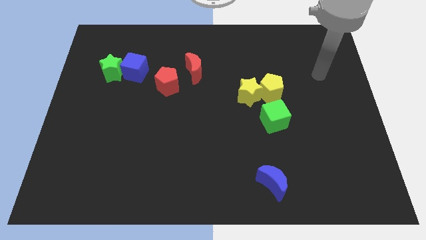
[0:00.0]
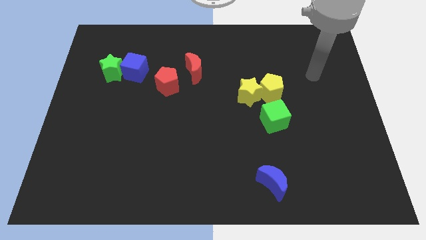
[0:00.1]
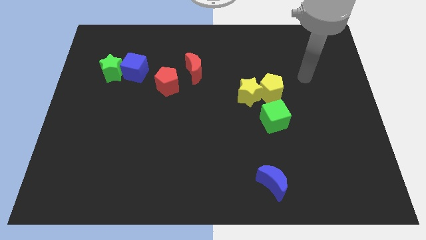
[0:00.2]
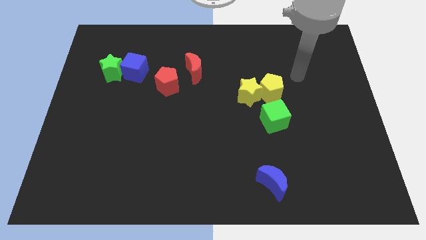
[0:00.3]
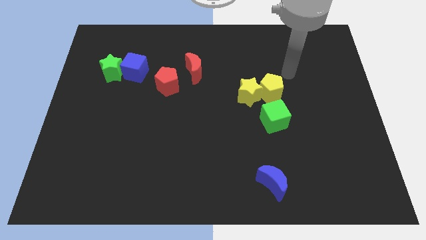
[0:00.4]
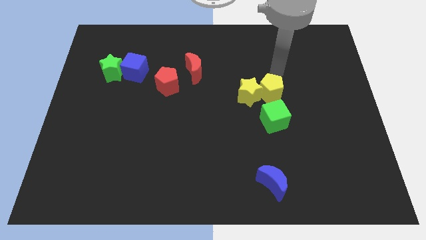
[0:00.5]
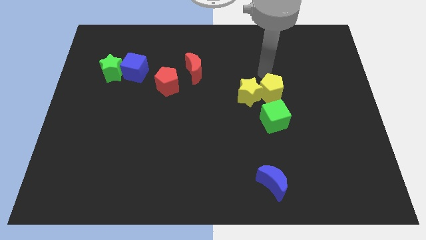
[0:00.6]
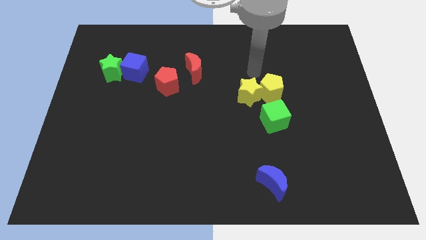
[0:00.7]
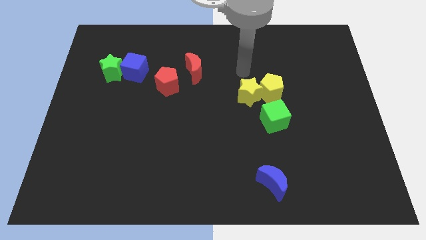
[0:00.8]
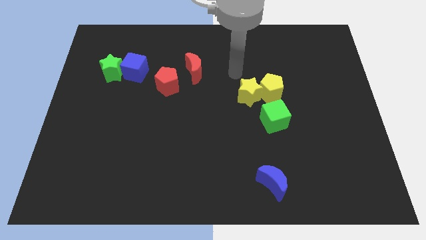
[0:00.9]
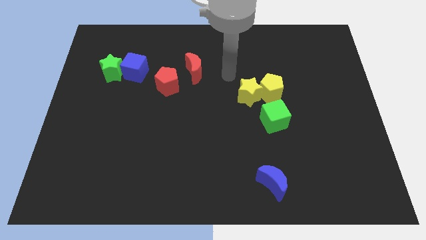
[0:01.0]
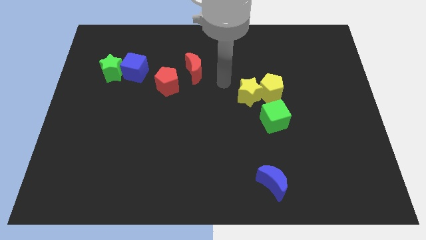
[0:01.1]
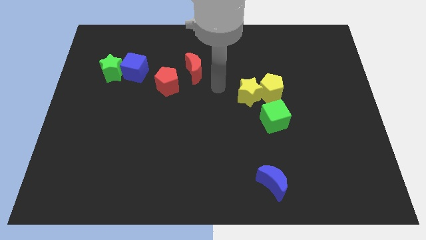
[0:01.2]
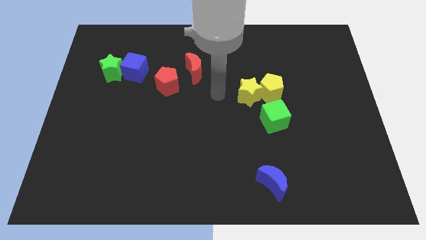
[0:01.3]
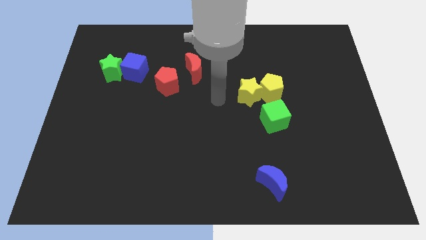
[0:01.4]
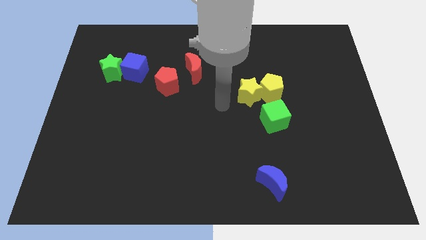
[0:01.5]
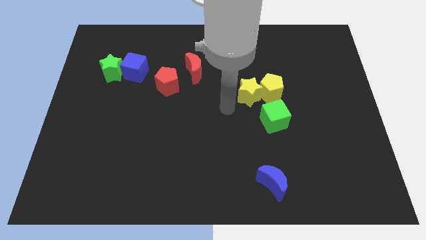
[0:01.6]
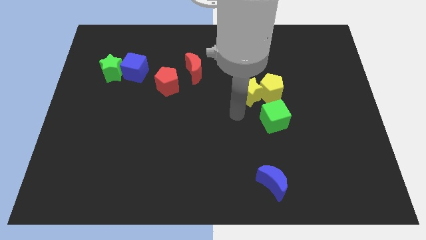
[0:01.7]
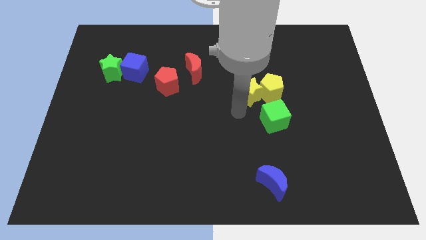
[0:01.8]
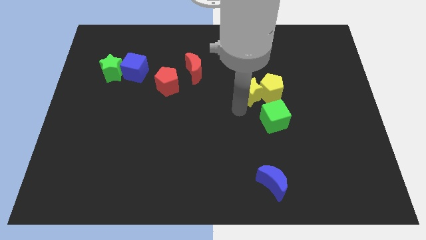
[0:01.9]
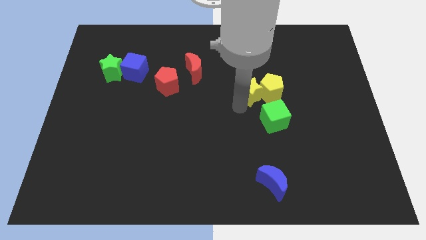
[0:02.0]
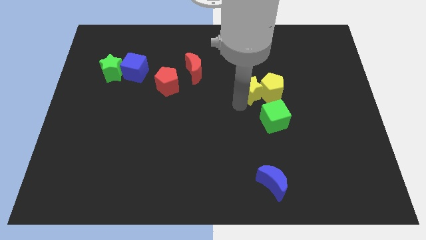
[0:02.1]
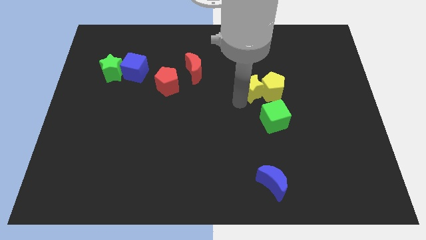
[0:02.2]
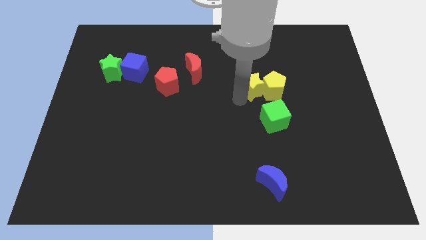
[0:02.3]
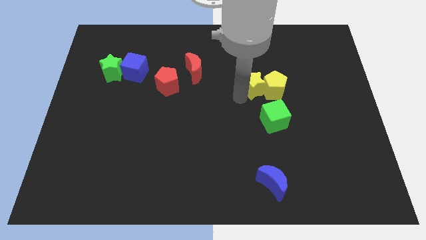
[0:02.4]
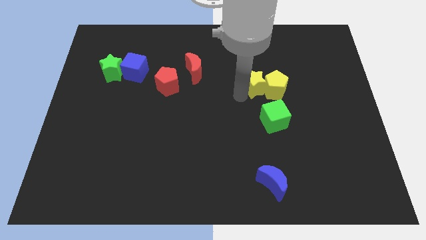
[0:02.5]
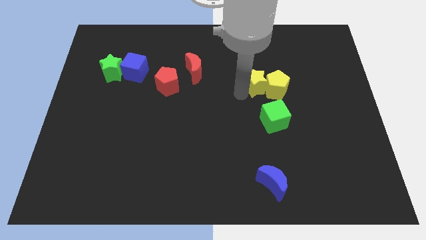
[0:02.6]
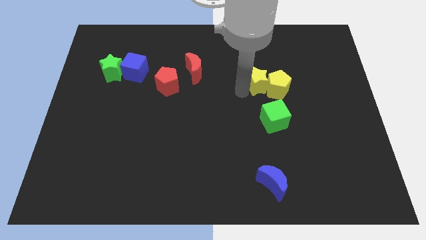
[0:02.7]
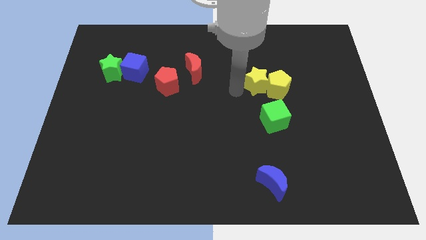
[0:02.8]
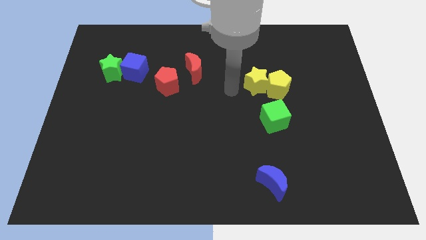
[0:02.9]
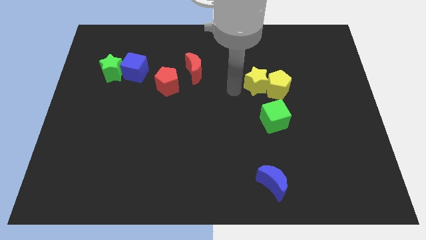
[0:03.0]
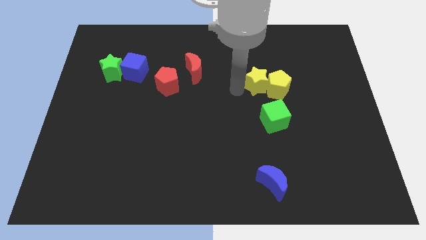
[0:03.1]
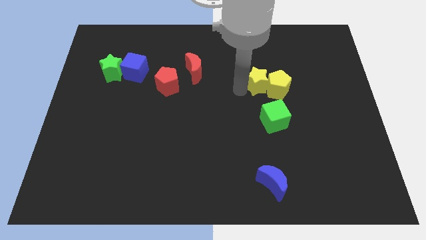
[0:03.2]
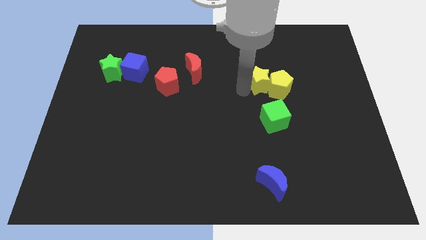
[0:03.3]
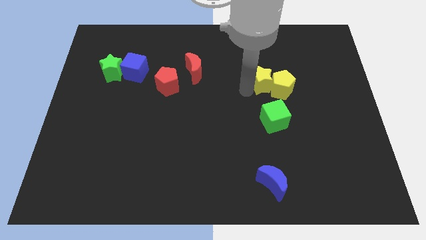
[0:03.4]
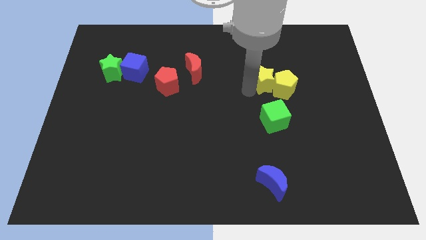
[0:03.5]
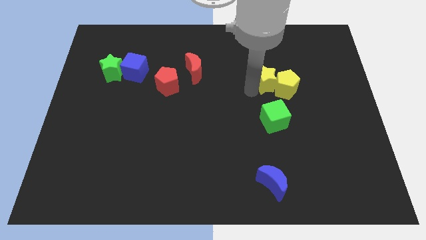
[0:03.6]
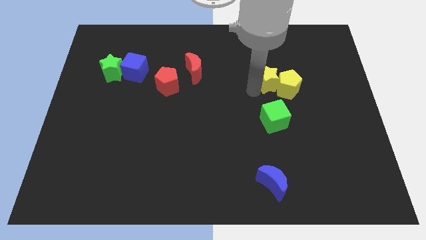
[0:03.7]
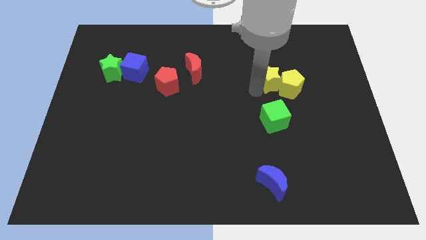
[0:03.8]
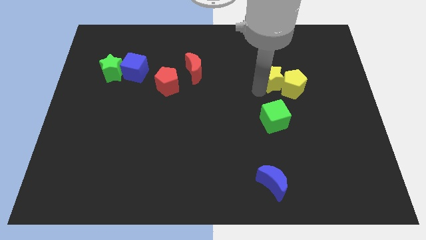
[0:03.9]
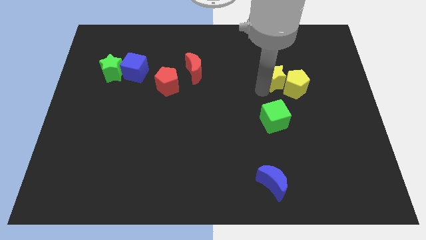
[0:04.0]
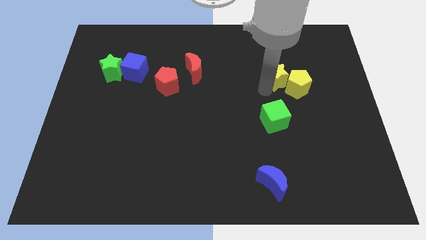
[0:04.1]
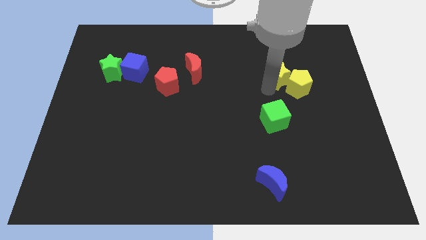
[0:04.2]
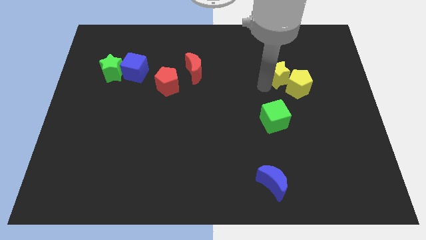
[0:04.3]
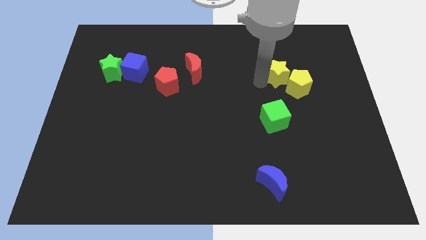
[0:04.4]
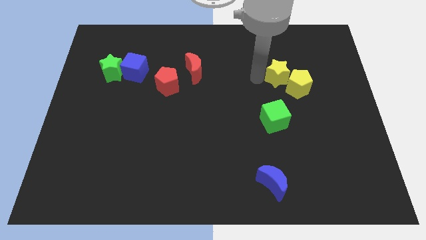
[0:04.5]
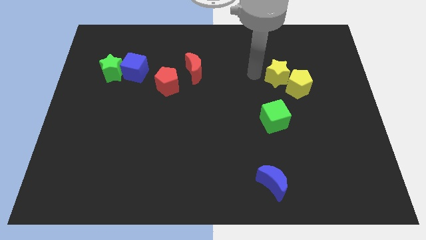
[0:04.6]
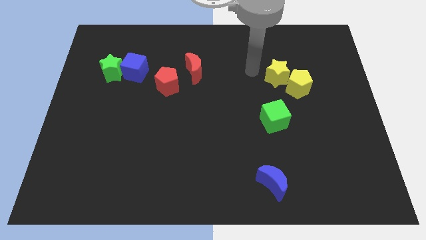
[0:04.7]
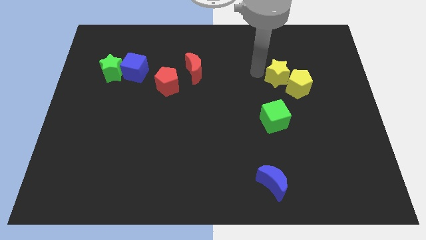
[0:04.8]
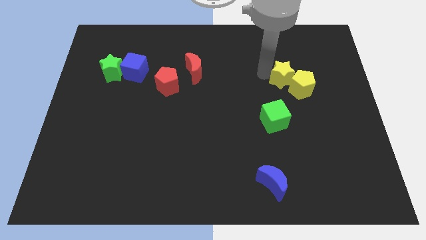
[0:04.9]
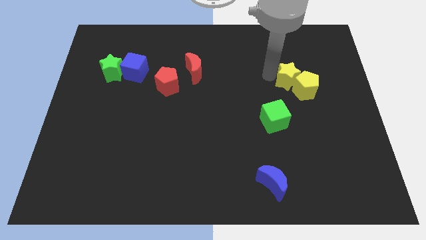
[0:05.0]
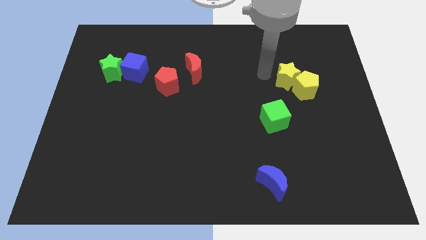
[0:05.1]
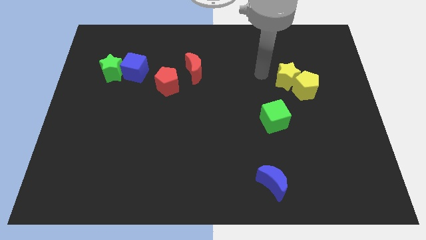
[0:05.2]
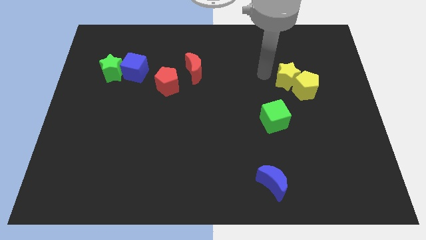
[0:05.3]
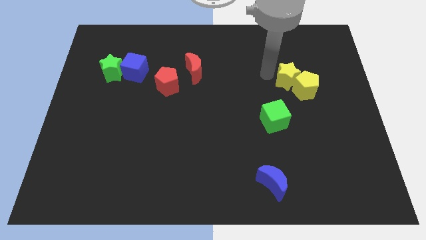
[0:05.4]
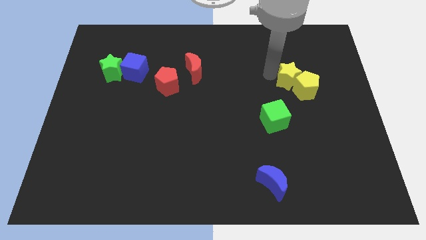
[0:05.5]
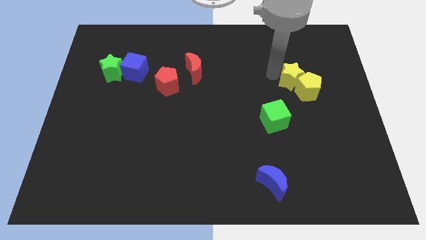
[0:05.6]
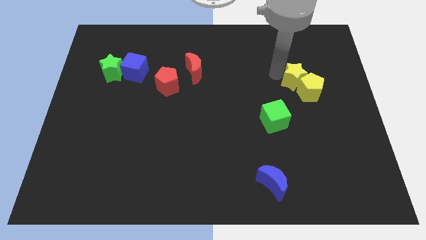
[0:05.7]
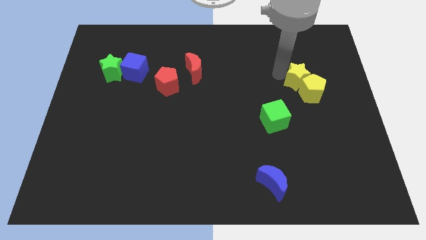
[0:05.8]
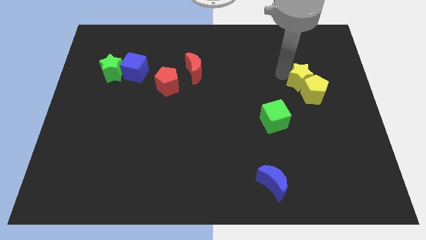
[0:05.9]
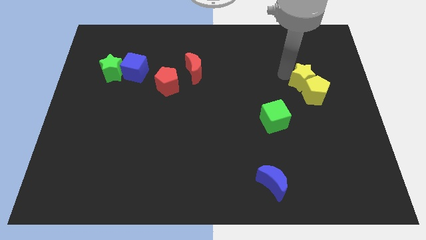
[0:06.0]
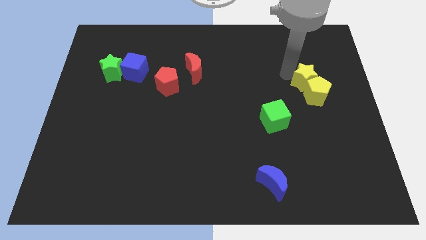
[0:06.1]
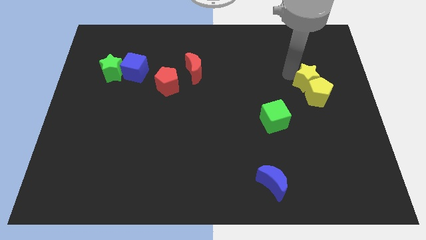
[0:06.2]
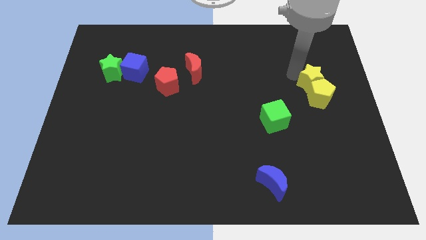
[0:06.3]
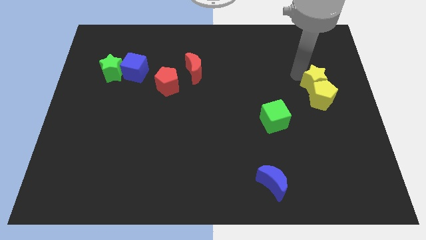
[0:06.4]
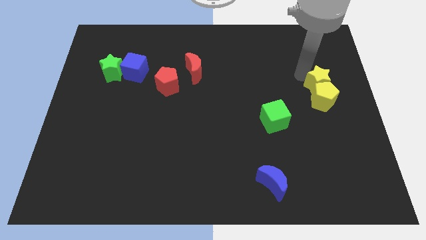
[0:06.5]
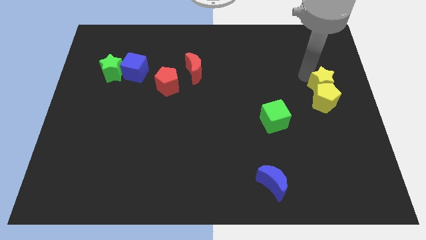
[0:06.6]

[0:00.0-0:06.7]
slide the yellow star to the right side of the board
